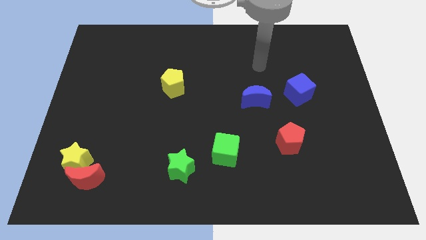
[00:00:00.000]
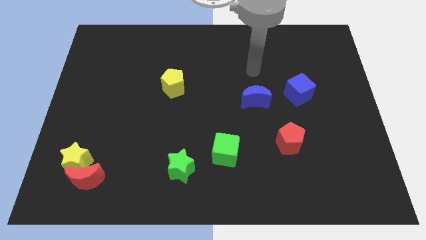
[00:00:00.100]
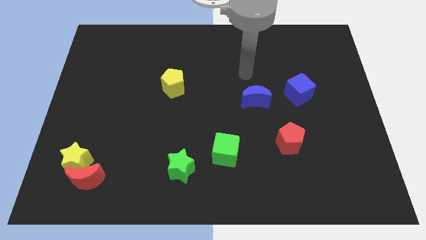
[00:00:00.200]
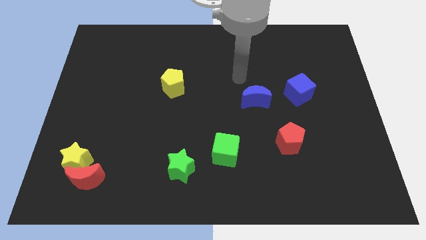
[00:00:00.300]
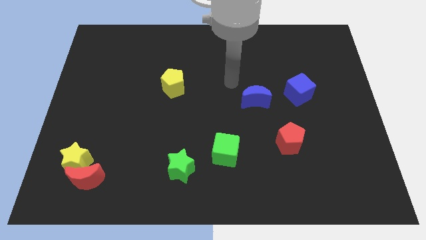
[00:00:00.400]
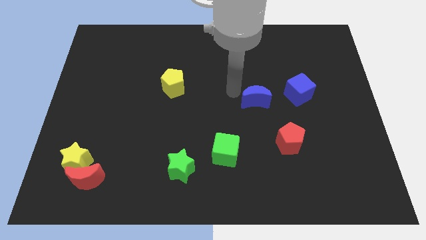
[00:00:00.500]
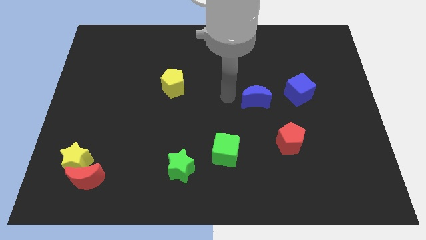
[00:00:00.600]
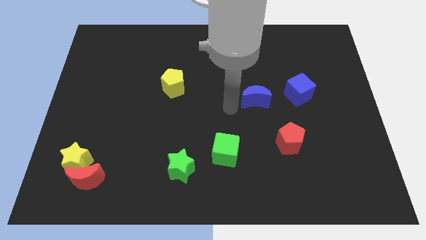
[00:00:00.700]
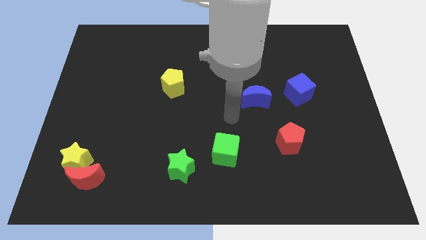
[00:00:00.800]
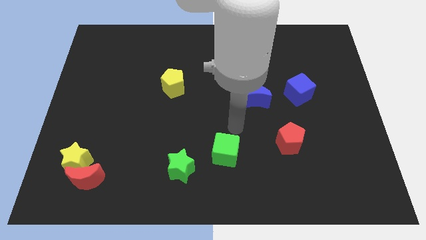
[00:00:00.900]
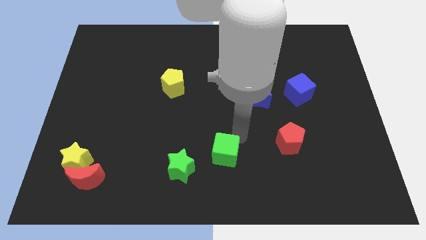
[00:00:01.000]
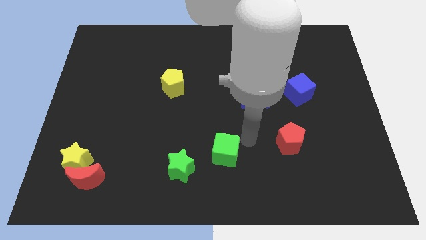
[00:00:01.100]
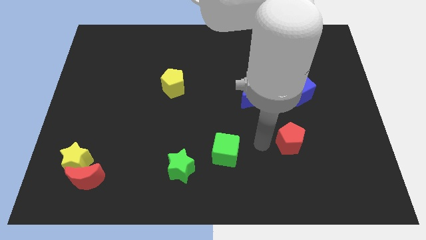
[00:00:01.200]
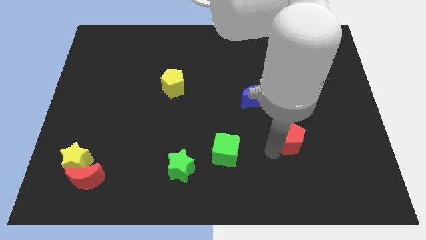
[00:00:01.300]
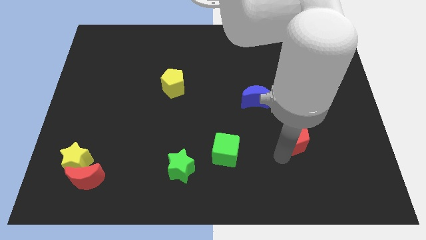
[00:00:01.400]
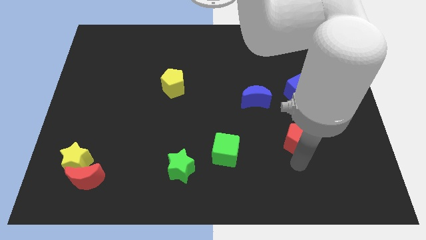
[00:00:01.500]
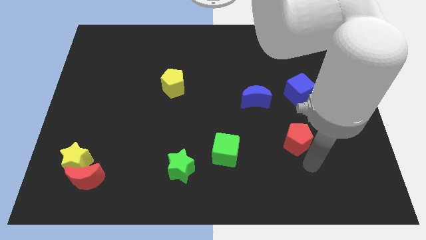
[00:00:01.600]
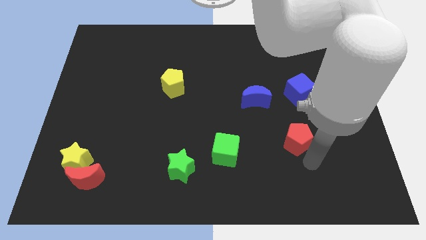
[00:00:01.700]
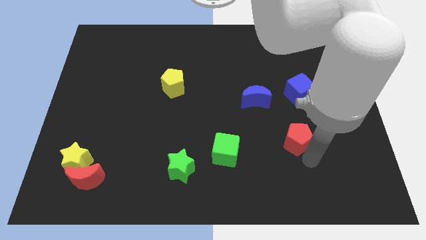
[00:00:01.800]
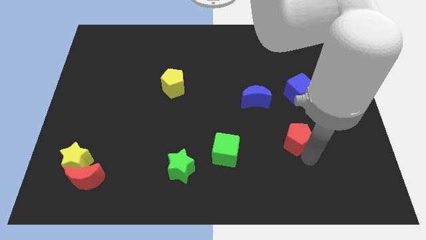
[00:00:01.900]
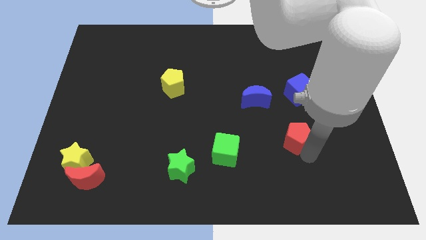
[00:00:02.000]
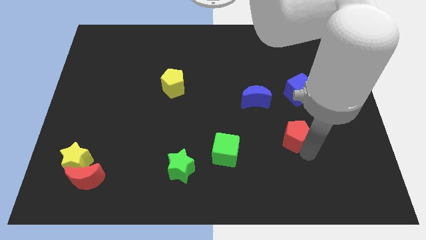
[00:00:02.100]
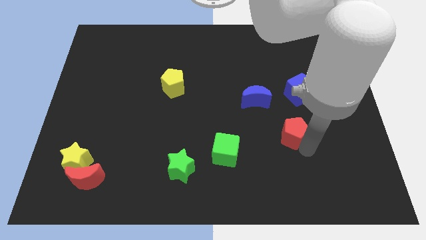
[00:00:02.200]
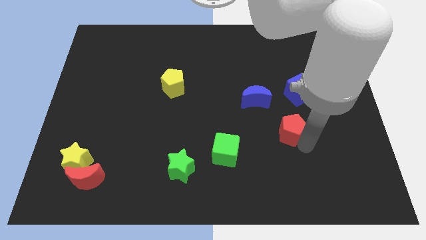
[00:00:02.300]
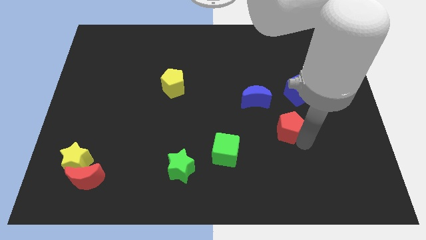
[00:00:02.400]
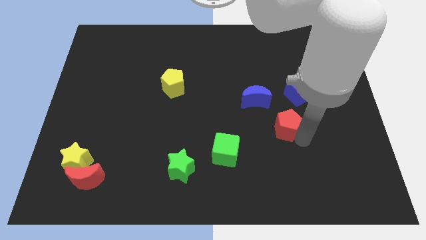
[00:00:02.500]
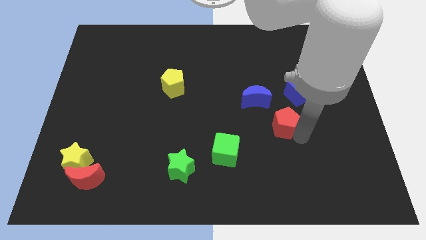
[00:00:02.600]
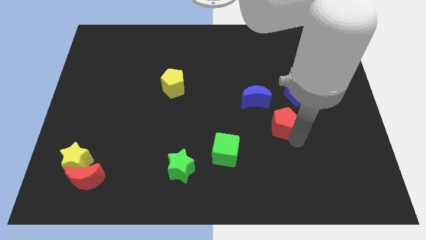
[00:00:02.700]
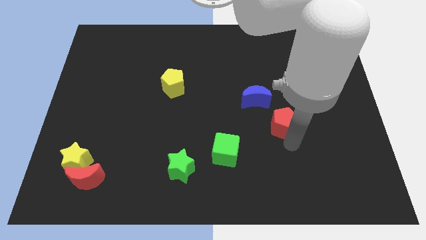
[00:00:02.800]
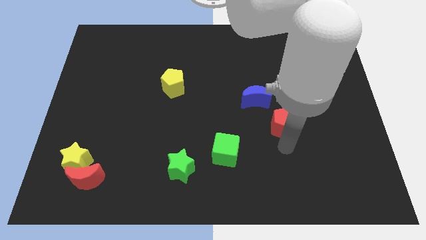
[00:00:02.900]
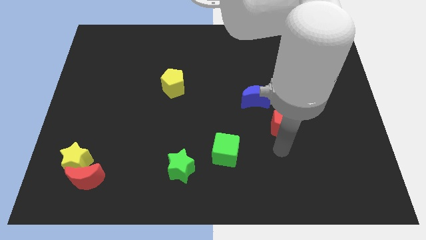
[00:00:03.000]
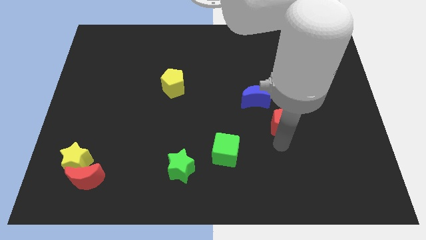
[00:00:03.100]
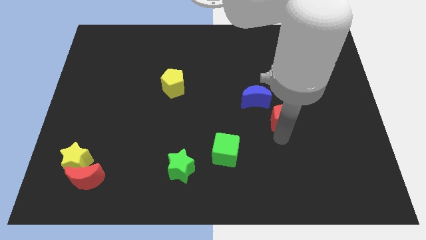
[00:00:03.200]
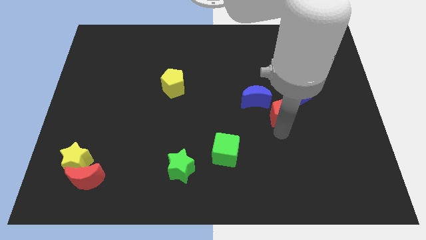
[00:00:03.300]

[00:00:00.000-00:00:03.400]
push the red pentagon a little up

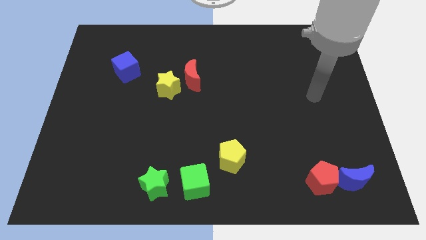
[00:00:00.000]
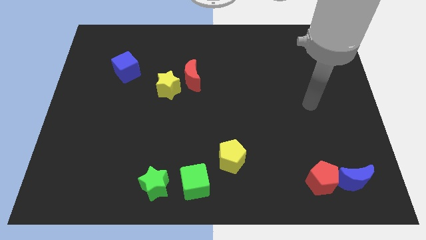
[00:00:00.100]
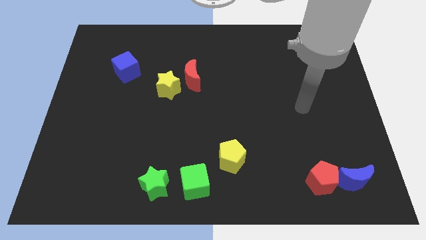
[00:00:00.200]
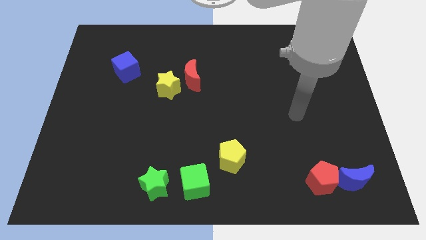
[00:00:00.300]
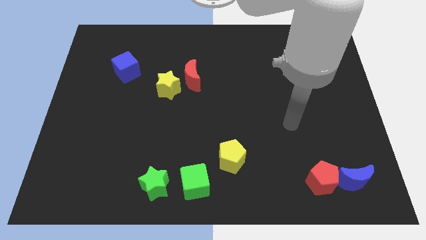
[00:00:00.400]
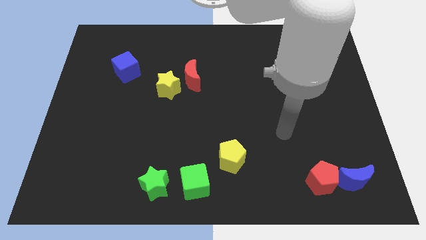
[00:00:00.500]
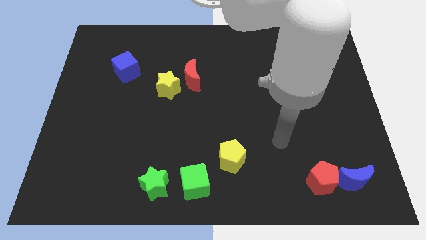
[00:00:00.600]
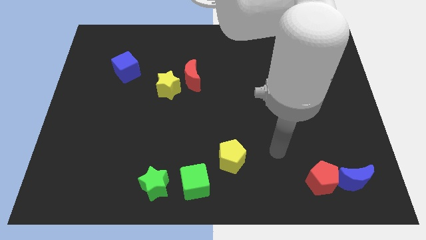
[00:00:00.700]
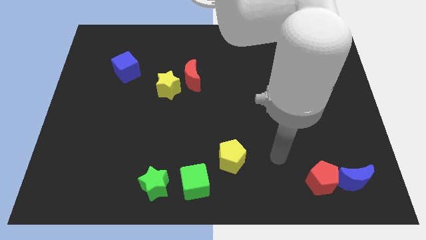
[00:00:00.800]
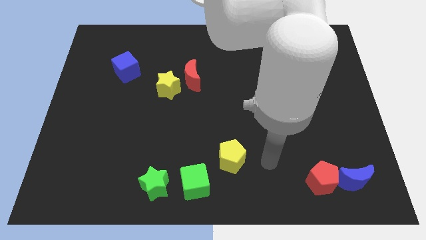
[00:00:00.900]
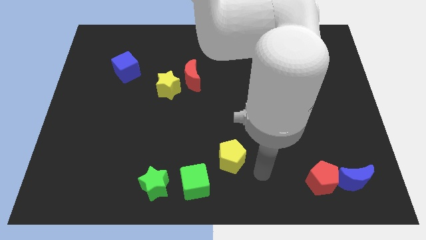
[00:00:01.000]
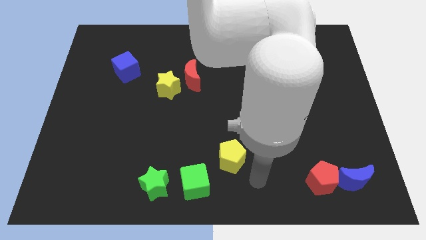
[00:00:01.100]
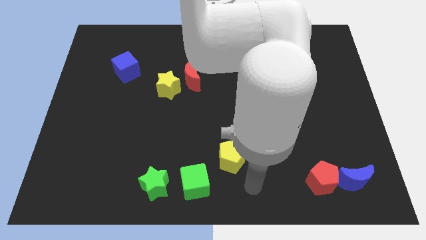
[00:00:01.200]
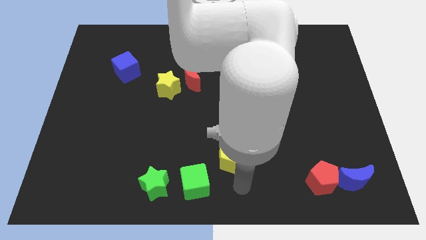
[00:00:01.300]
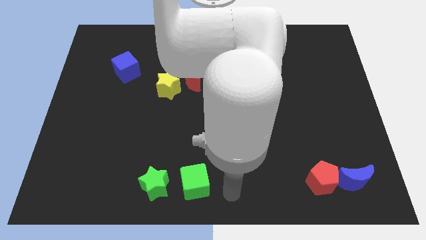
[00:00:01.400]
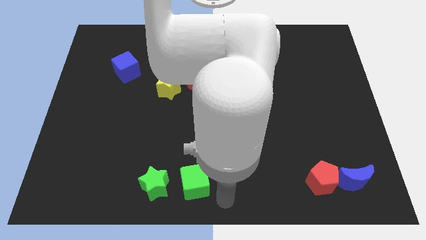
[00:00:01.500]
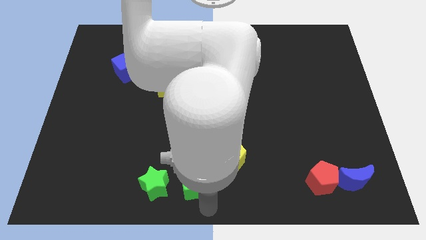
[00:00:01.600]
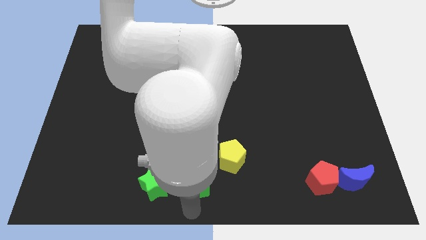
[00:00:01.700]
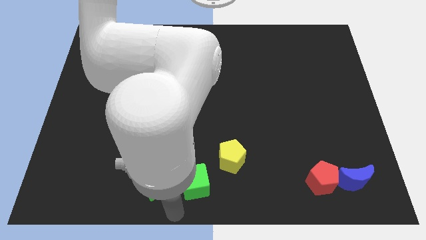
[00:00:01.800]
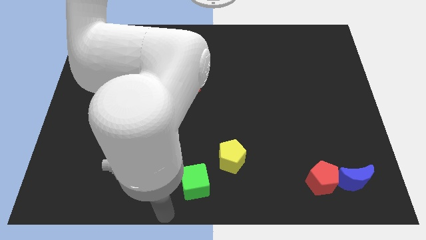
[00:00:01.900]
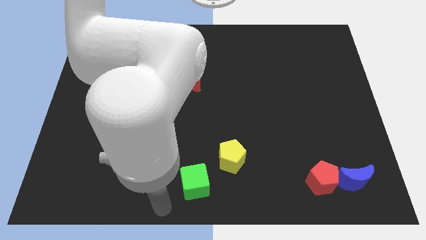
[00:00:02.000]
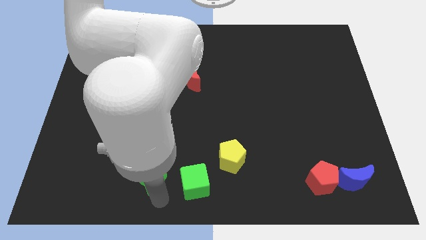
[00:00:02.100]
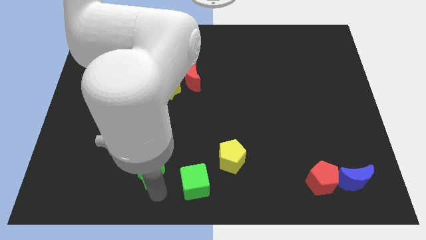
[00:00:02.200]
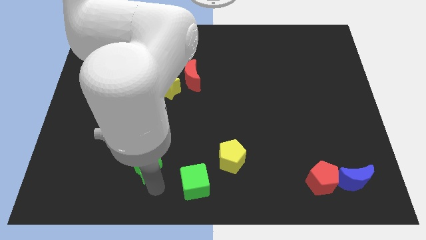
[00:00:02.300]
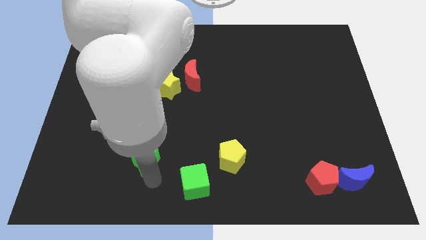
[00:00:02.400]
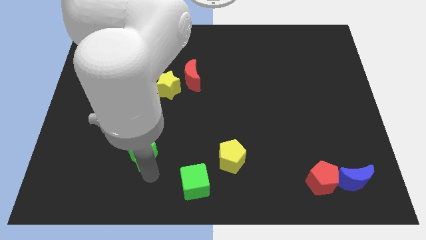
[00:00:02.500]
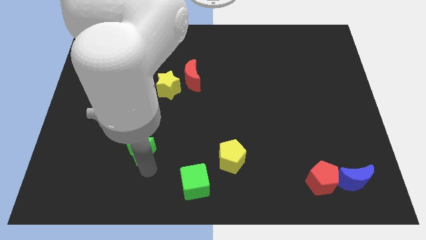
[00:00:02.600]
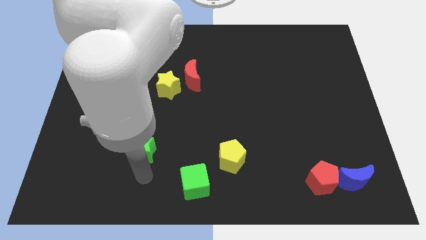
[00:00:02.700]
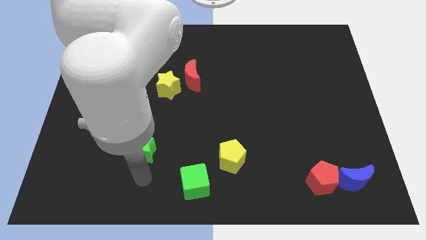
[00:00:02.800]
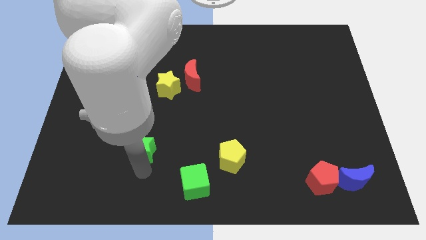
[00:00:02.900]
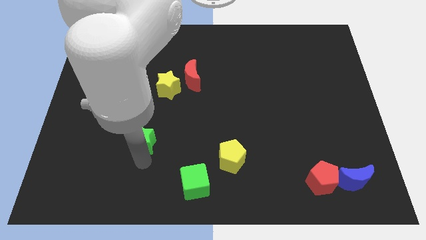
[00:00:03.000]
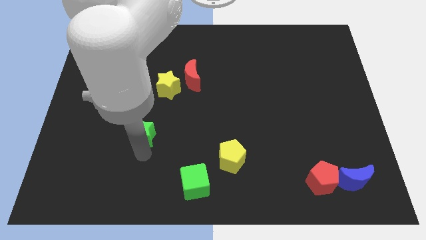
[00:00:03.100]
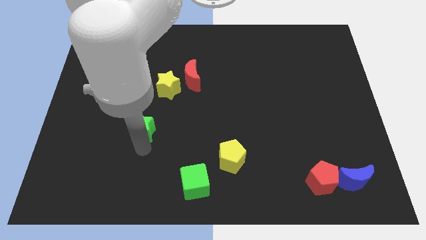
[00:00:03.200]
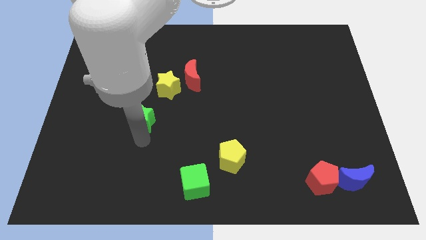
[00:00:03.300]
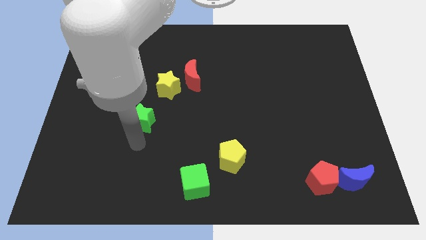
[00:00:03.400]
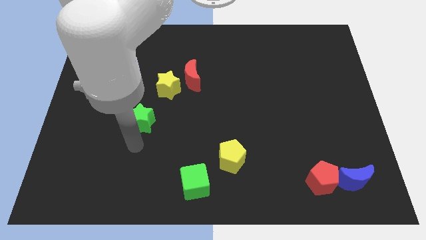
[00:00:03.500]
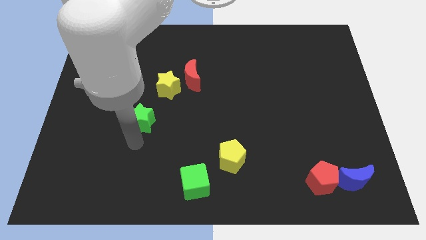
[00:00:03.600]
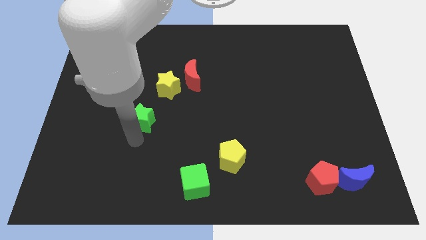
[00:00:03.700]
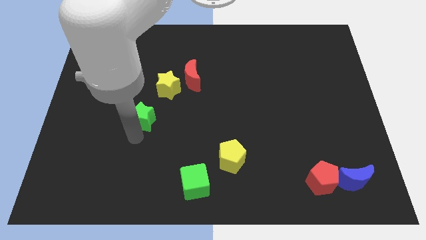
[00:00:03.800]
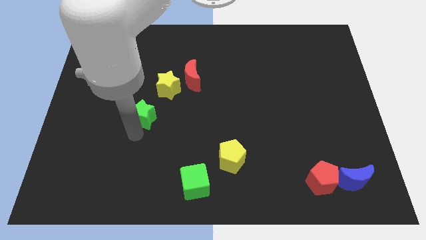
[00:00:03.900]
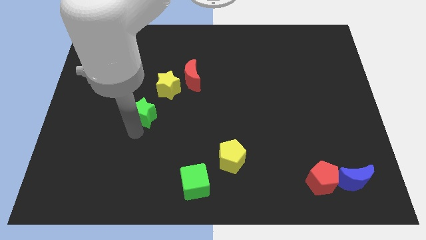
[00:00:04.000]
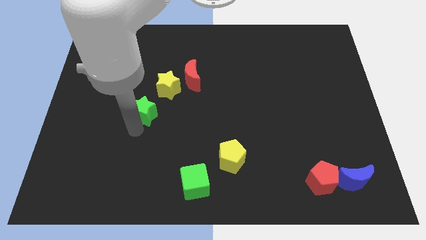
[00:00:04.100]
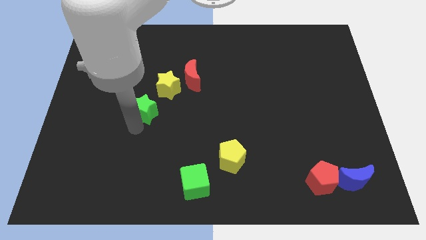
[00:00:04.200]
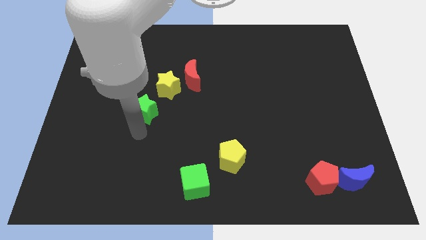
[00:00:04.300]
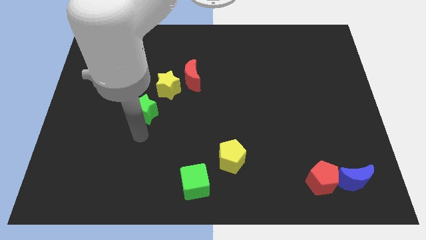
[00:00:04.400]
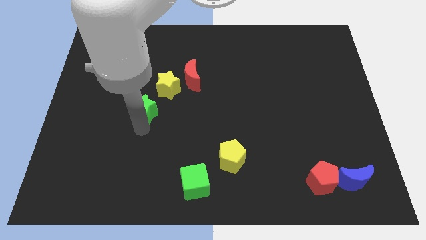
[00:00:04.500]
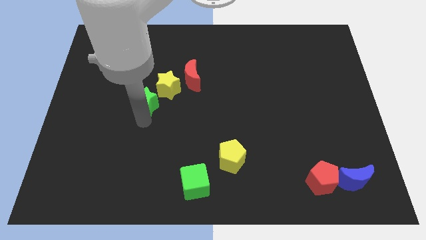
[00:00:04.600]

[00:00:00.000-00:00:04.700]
move the green star upwards
